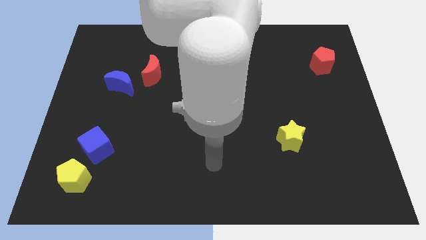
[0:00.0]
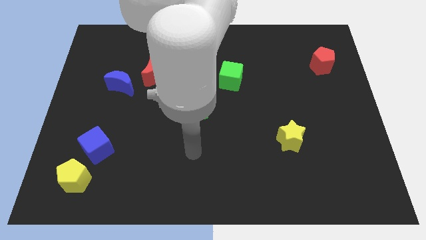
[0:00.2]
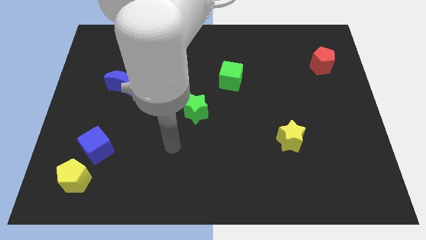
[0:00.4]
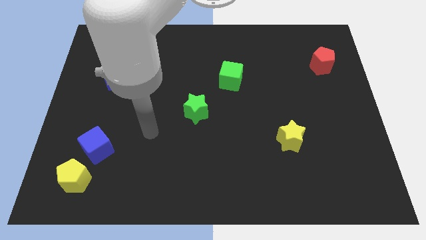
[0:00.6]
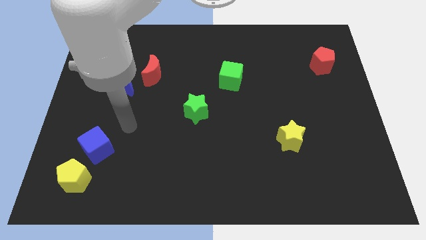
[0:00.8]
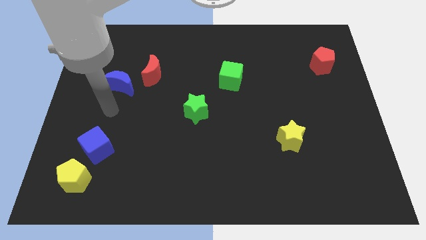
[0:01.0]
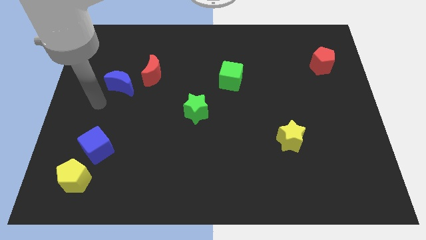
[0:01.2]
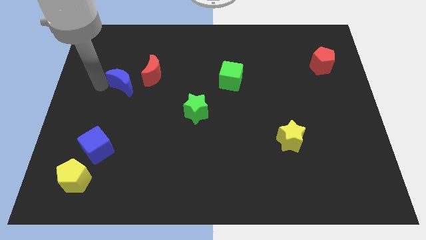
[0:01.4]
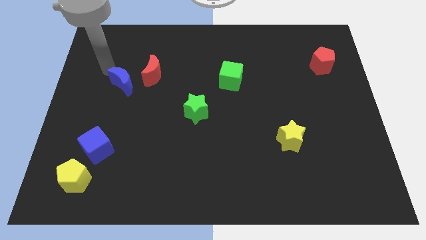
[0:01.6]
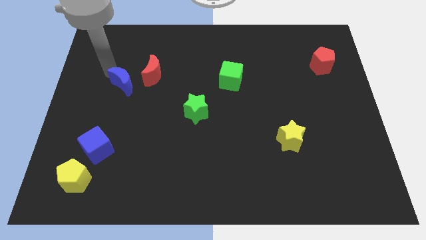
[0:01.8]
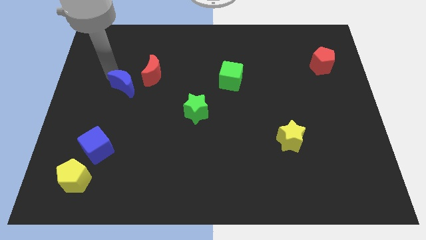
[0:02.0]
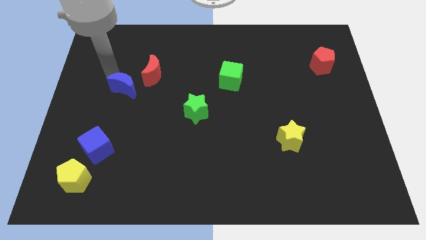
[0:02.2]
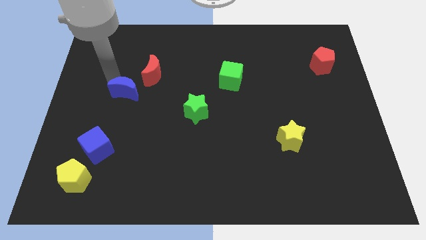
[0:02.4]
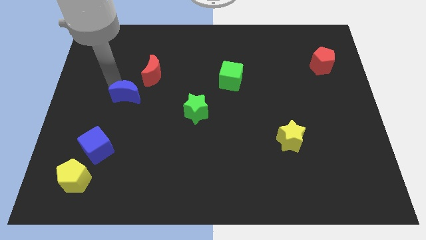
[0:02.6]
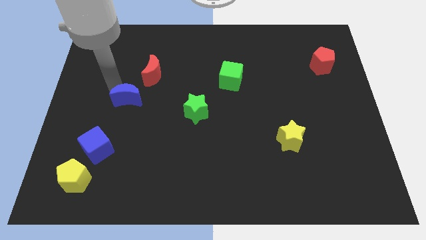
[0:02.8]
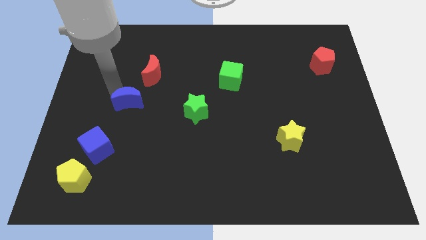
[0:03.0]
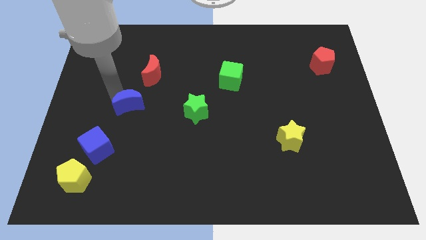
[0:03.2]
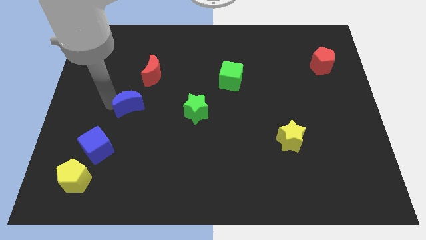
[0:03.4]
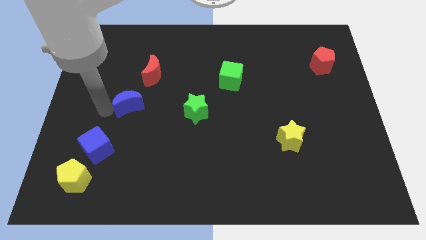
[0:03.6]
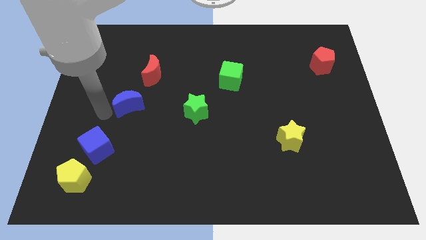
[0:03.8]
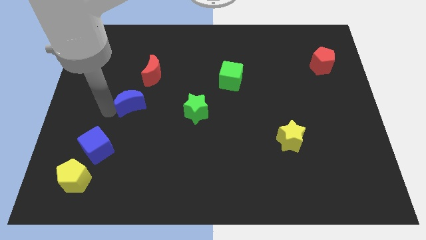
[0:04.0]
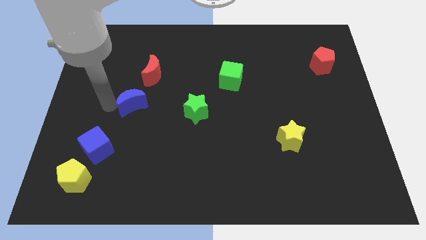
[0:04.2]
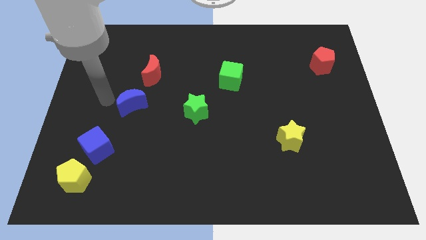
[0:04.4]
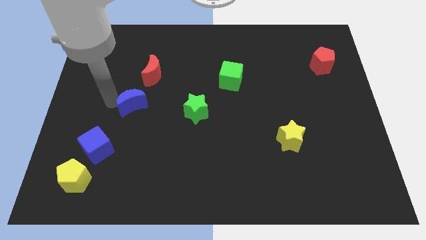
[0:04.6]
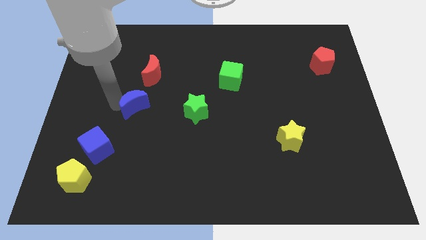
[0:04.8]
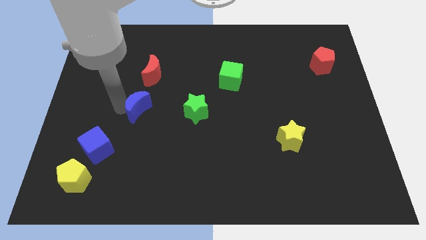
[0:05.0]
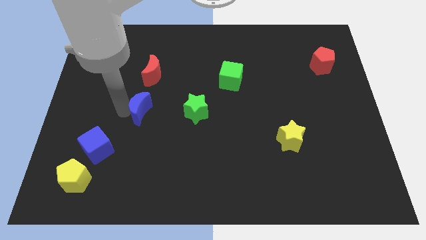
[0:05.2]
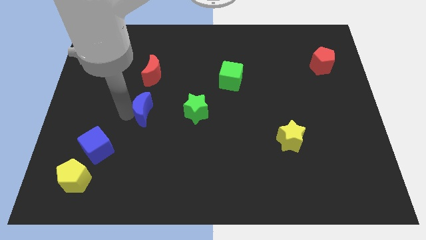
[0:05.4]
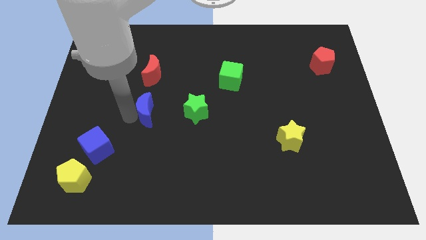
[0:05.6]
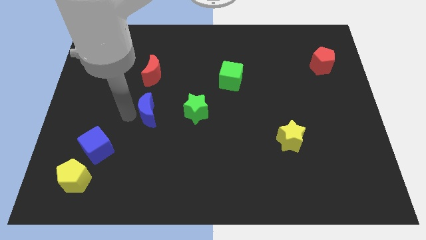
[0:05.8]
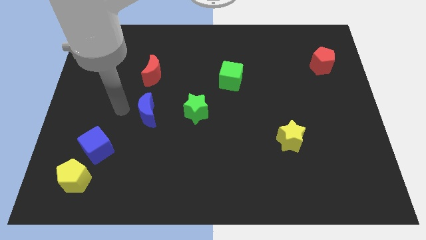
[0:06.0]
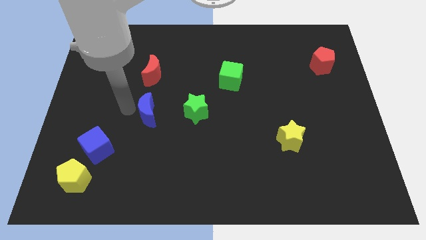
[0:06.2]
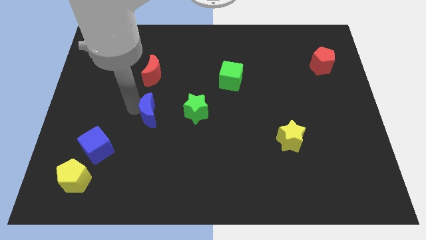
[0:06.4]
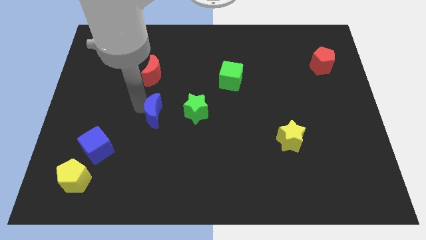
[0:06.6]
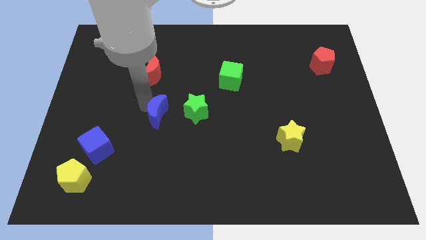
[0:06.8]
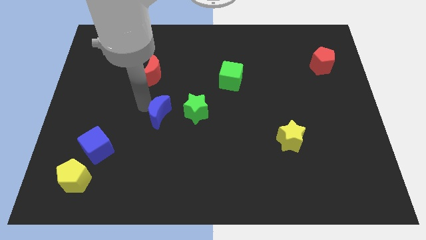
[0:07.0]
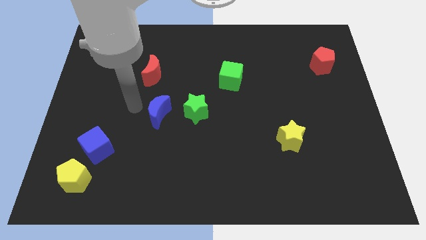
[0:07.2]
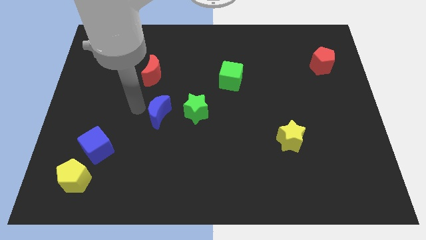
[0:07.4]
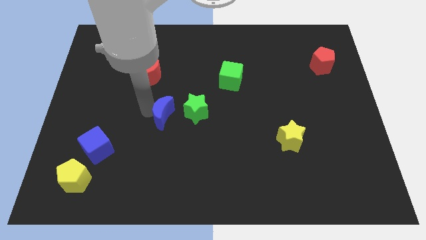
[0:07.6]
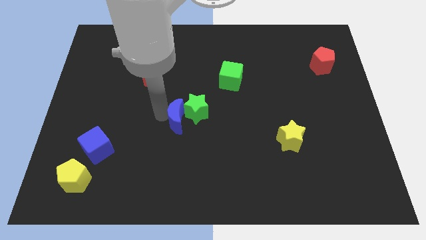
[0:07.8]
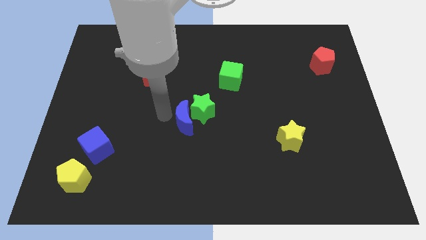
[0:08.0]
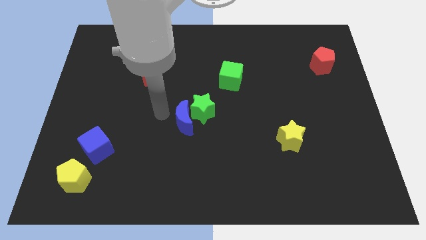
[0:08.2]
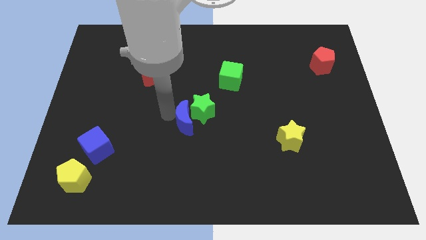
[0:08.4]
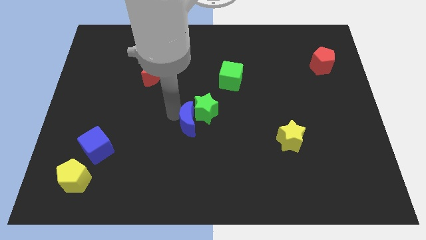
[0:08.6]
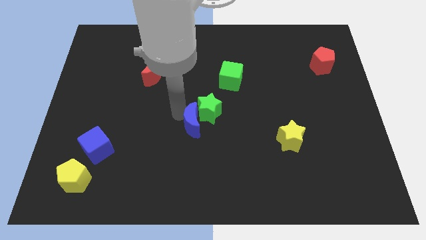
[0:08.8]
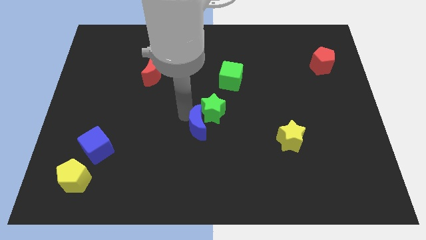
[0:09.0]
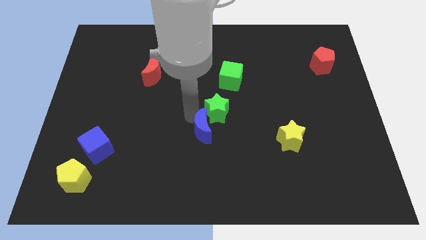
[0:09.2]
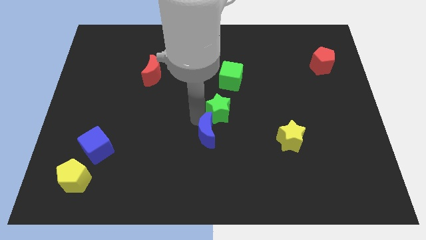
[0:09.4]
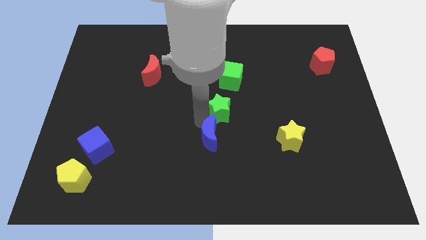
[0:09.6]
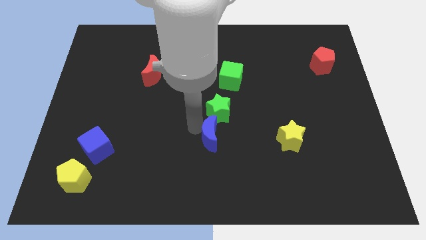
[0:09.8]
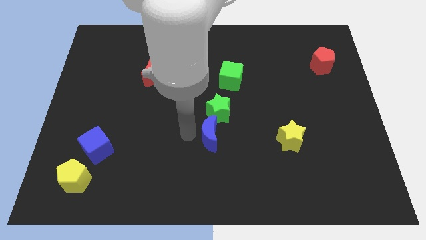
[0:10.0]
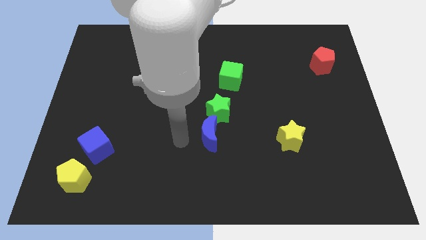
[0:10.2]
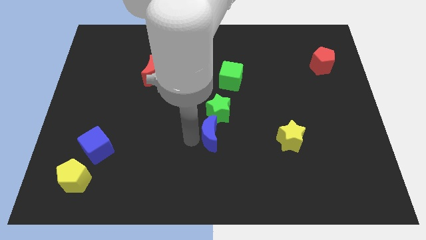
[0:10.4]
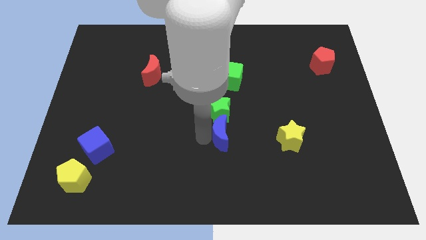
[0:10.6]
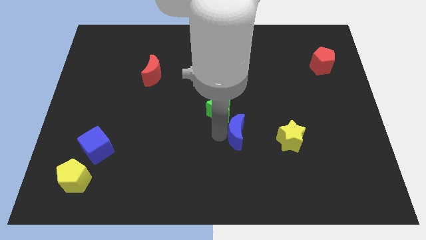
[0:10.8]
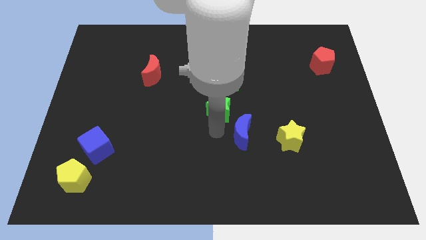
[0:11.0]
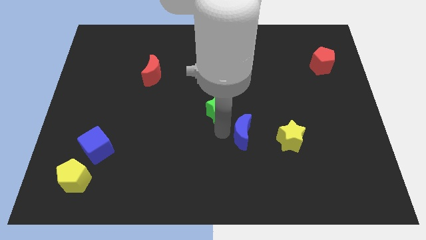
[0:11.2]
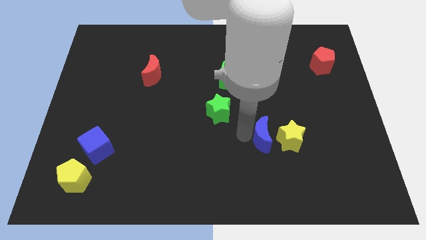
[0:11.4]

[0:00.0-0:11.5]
put the blue moon next to the yellow star

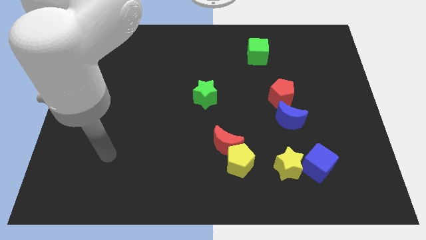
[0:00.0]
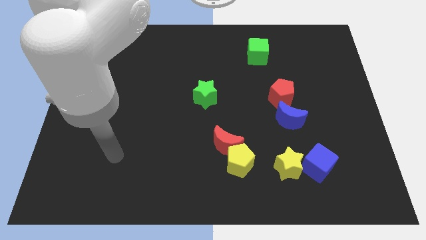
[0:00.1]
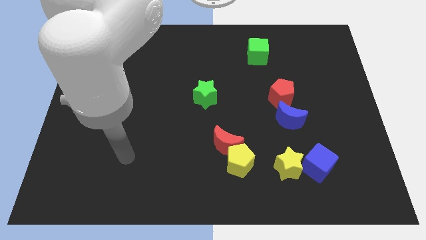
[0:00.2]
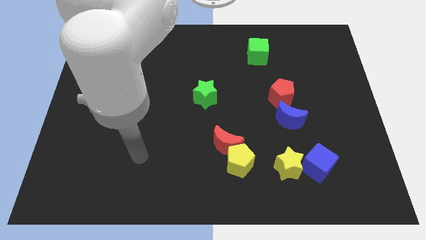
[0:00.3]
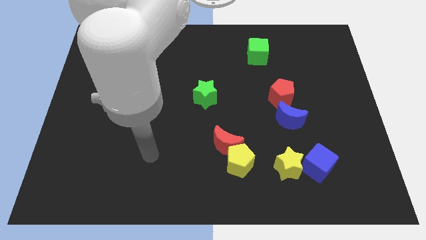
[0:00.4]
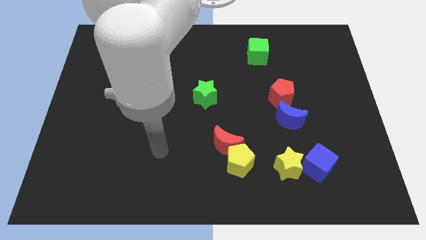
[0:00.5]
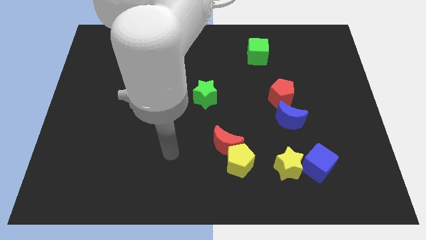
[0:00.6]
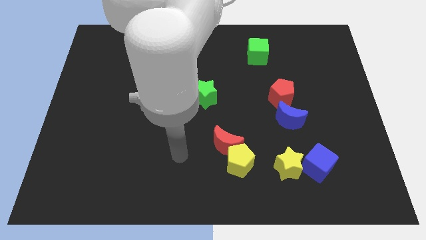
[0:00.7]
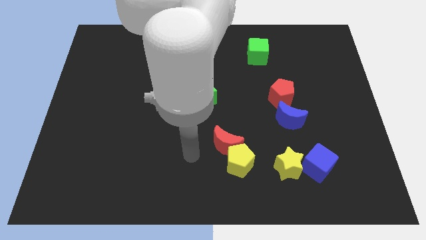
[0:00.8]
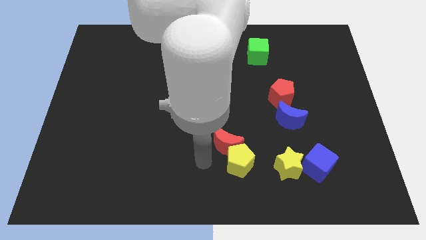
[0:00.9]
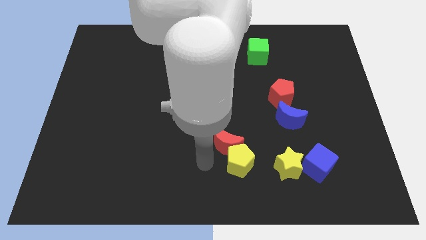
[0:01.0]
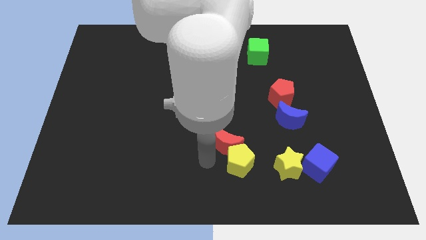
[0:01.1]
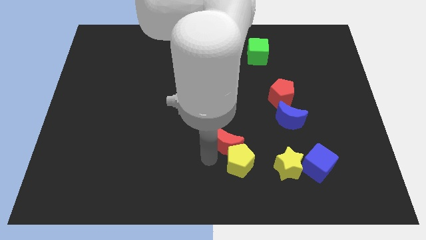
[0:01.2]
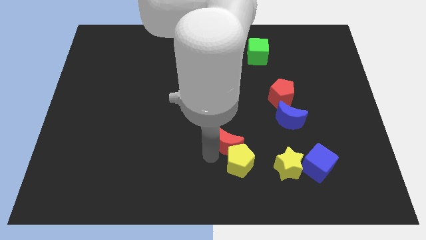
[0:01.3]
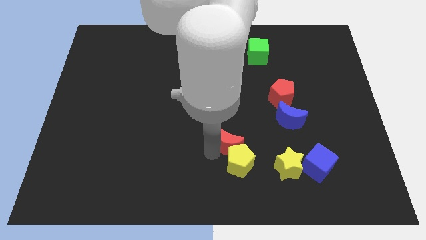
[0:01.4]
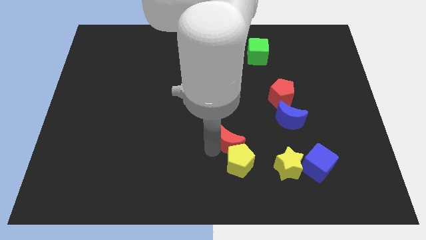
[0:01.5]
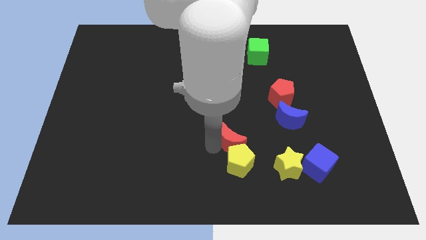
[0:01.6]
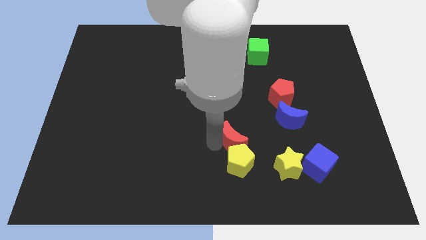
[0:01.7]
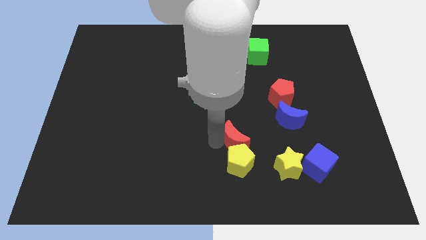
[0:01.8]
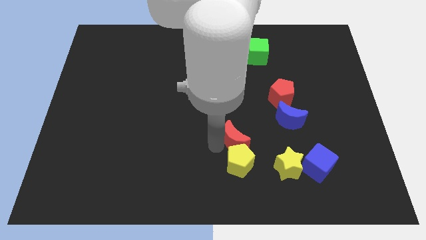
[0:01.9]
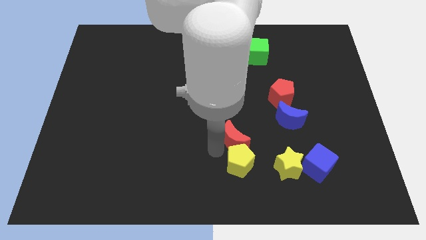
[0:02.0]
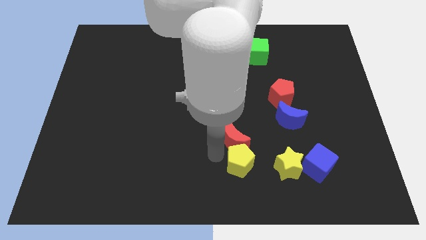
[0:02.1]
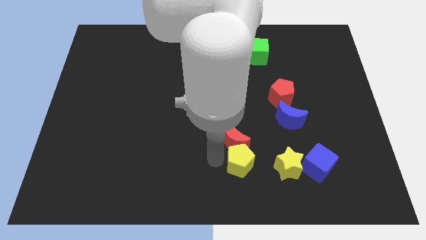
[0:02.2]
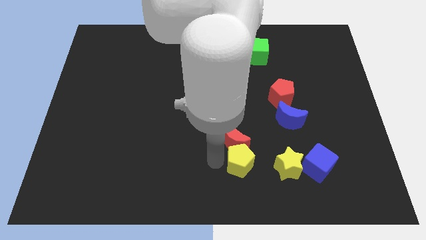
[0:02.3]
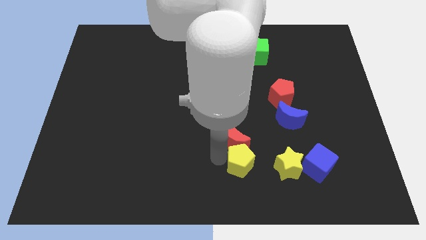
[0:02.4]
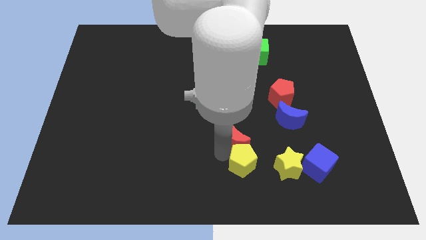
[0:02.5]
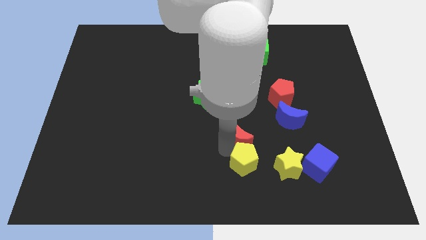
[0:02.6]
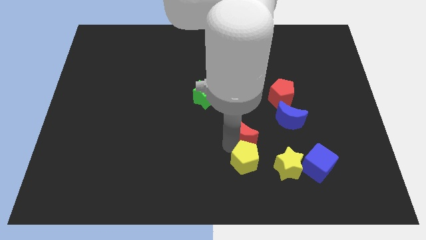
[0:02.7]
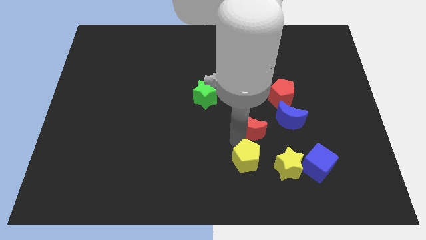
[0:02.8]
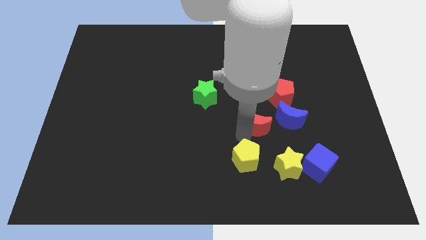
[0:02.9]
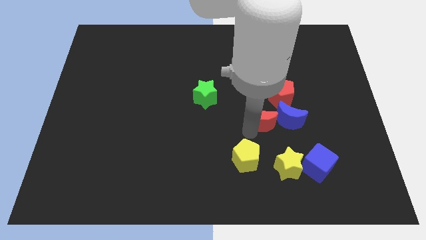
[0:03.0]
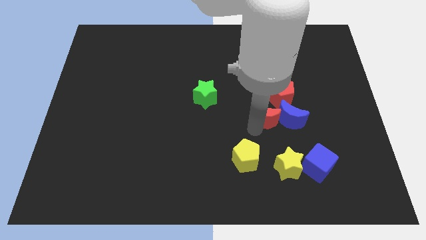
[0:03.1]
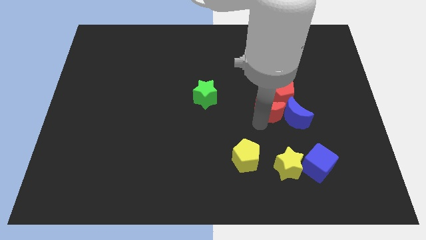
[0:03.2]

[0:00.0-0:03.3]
put the red moon to the red pentagon
